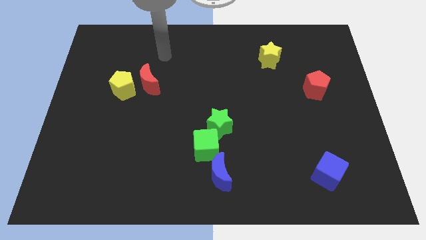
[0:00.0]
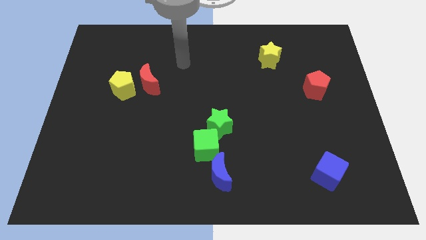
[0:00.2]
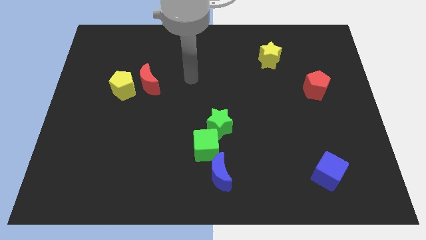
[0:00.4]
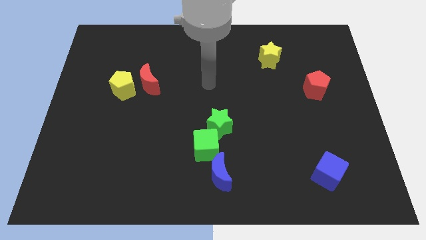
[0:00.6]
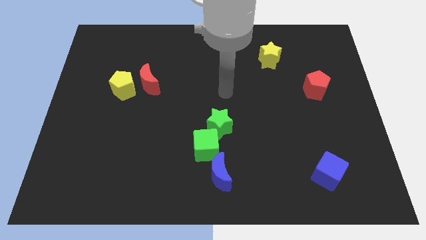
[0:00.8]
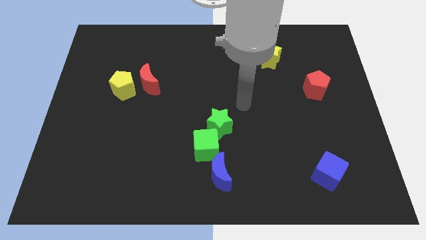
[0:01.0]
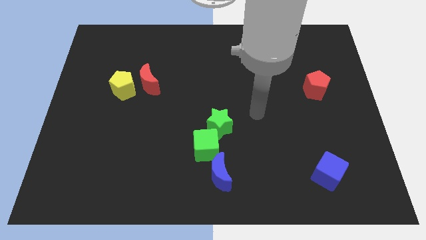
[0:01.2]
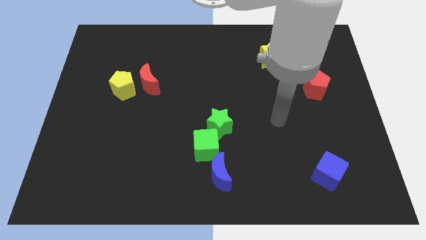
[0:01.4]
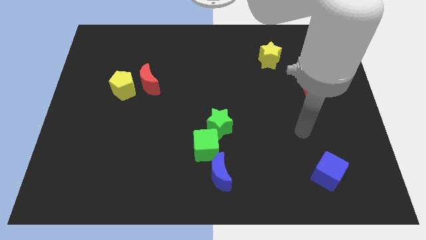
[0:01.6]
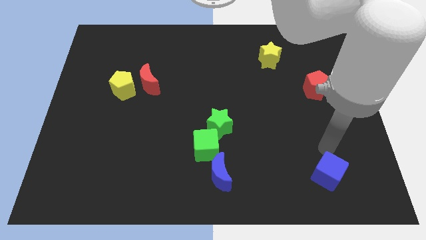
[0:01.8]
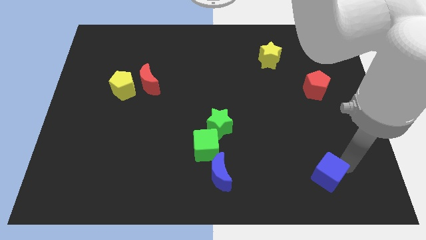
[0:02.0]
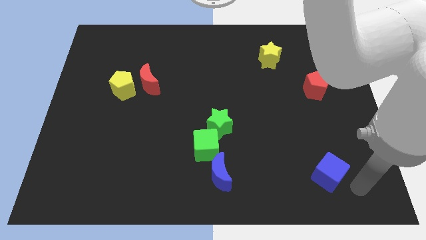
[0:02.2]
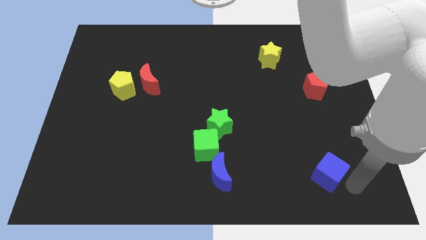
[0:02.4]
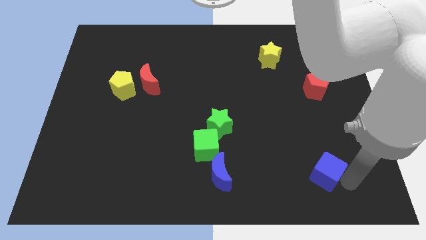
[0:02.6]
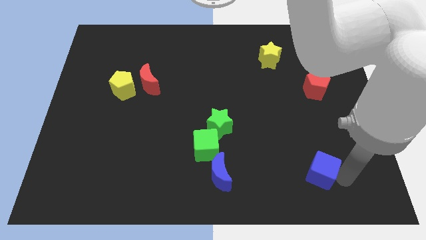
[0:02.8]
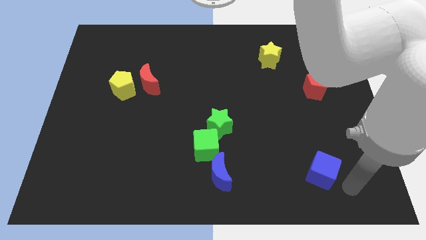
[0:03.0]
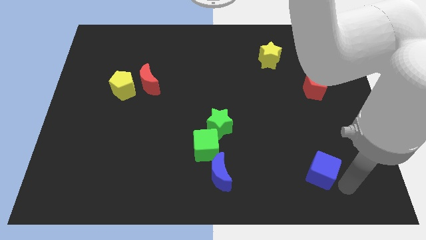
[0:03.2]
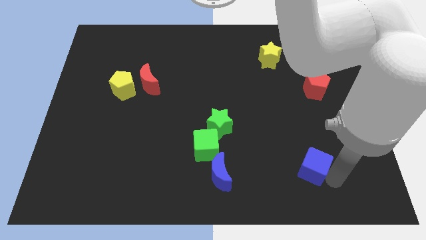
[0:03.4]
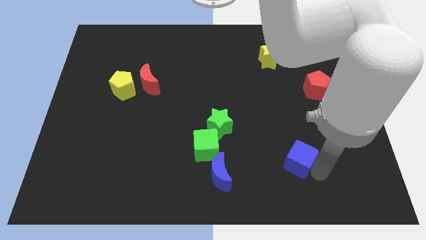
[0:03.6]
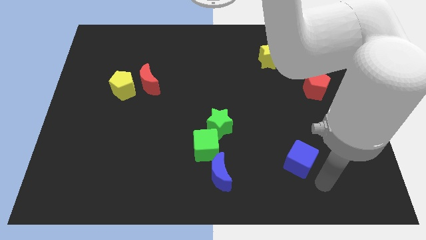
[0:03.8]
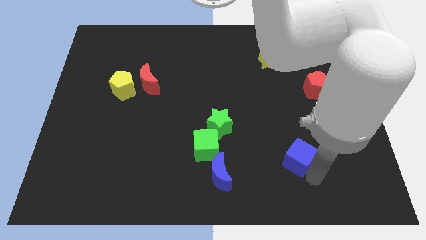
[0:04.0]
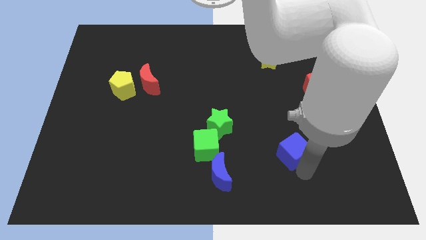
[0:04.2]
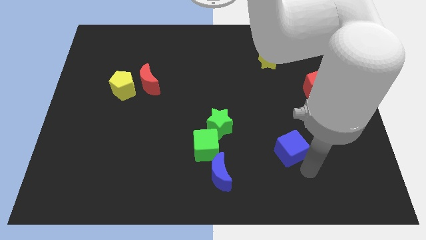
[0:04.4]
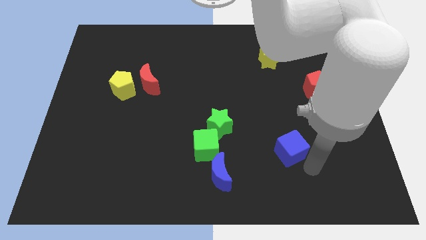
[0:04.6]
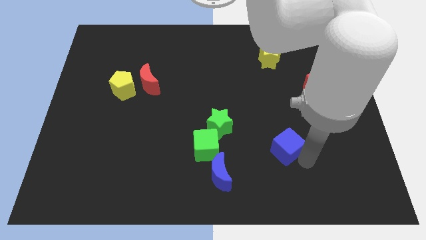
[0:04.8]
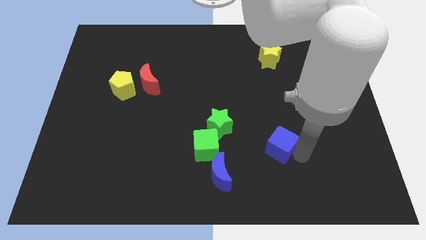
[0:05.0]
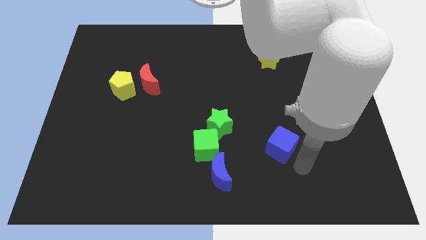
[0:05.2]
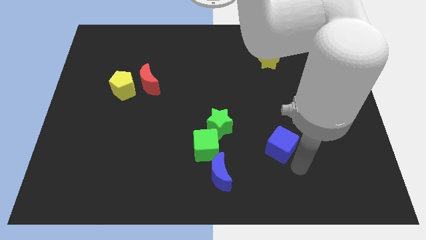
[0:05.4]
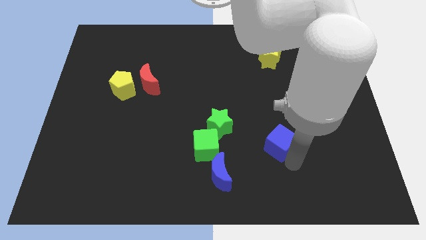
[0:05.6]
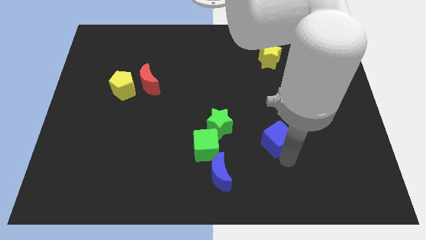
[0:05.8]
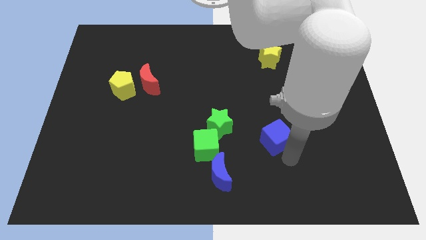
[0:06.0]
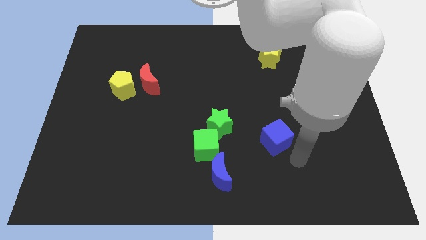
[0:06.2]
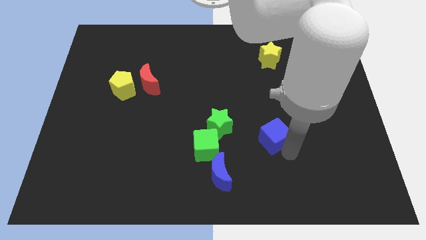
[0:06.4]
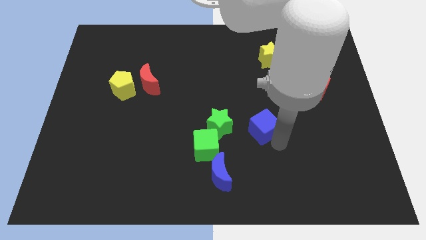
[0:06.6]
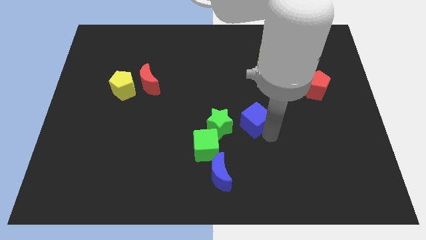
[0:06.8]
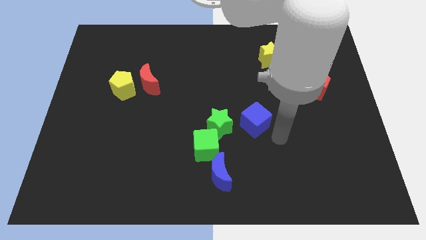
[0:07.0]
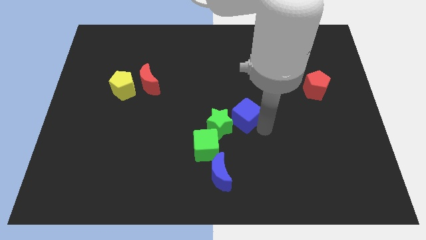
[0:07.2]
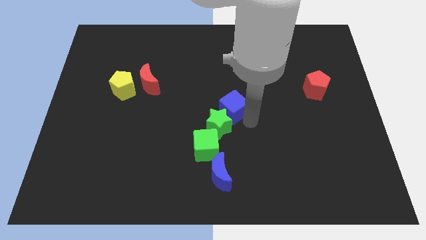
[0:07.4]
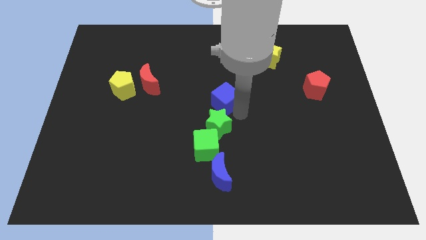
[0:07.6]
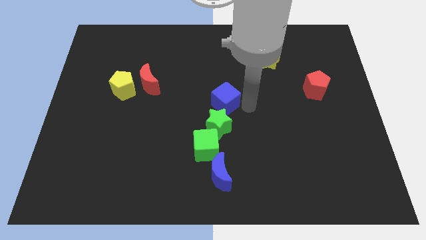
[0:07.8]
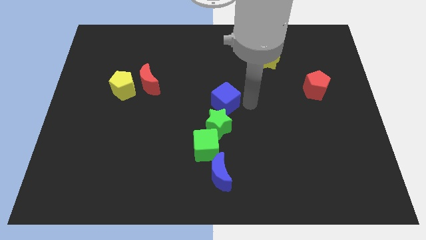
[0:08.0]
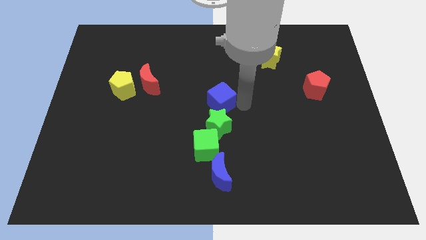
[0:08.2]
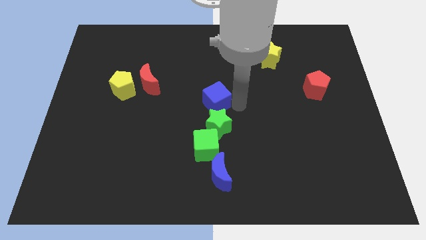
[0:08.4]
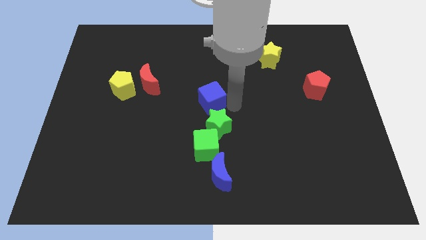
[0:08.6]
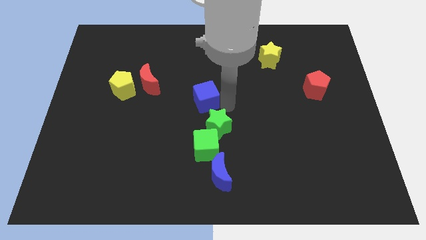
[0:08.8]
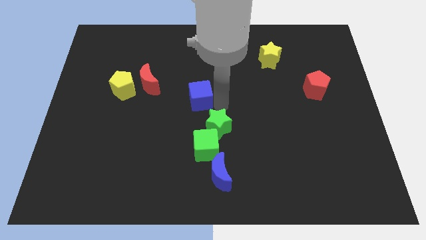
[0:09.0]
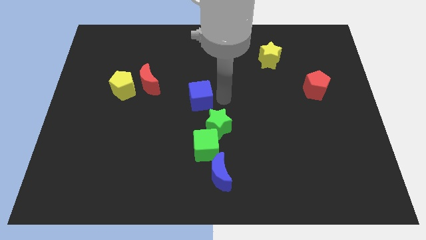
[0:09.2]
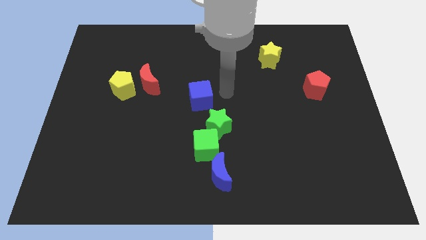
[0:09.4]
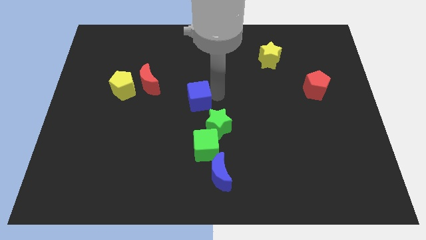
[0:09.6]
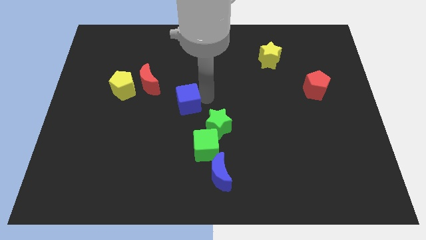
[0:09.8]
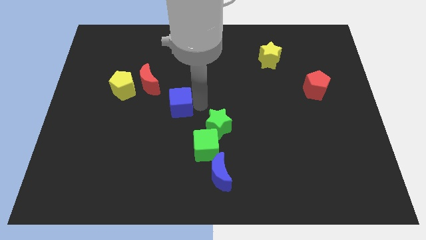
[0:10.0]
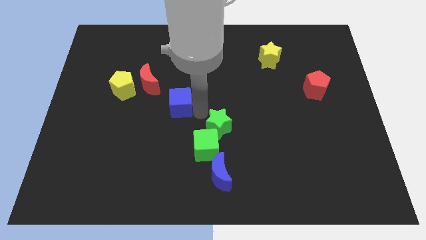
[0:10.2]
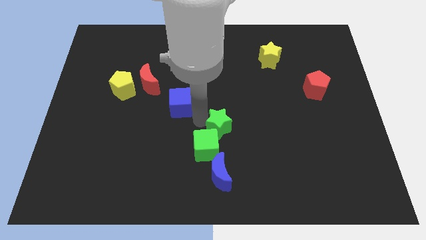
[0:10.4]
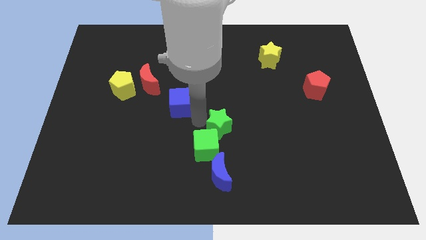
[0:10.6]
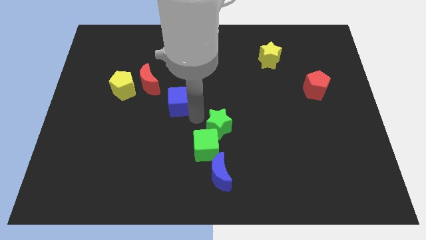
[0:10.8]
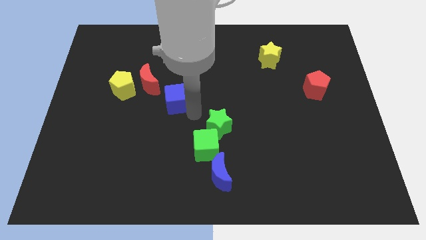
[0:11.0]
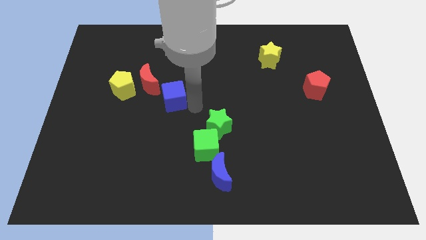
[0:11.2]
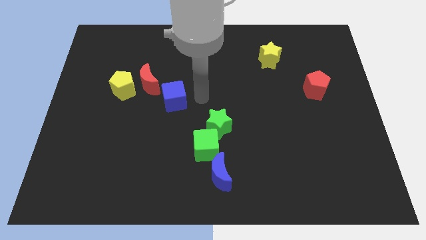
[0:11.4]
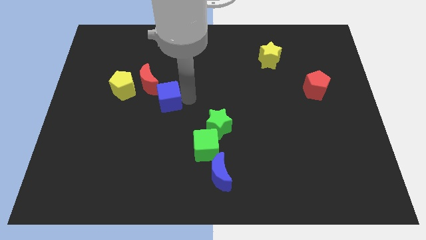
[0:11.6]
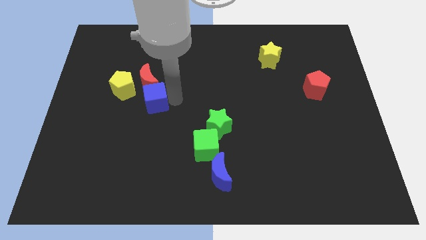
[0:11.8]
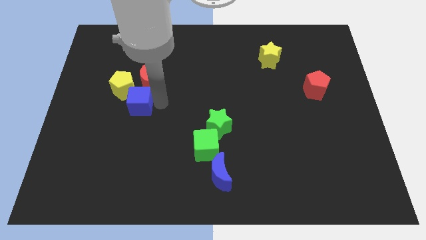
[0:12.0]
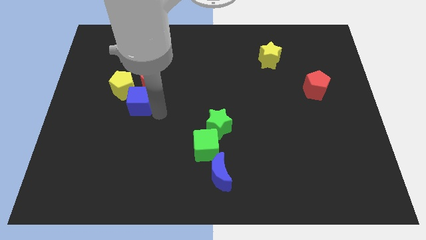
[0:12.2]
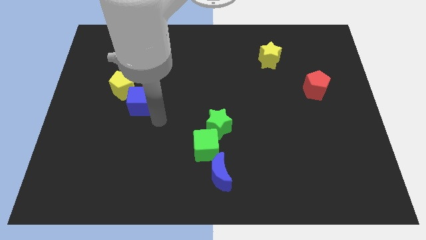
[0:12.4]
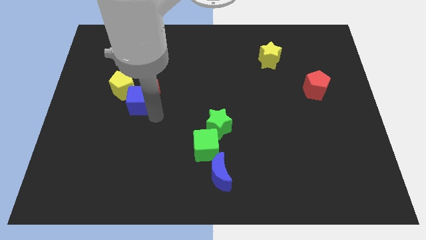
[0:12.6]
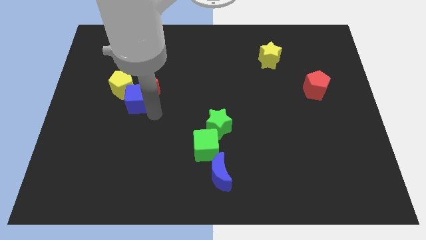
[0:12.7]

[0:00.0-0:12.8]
slide the blue cube close to the yellow pentagon

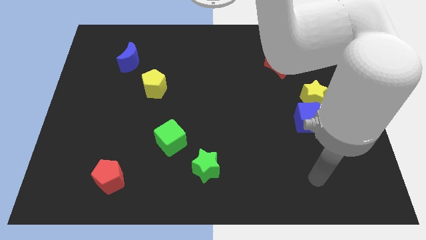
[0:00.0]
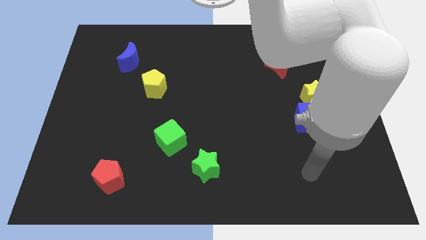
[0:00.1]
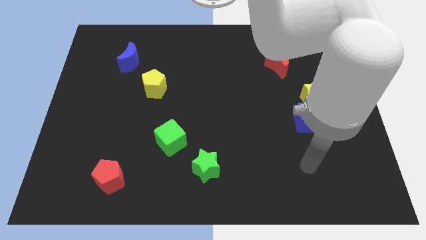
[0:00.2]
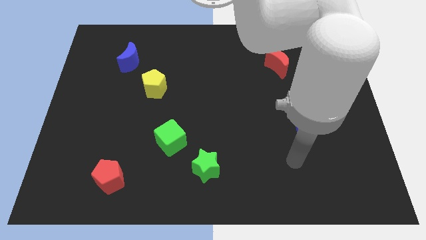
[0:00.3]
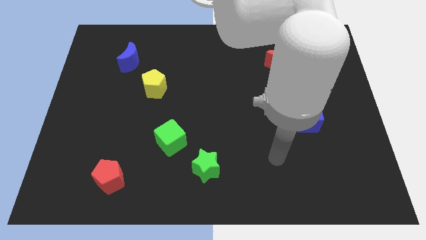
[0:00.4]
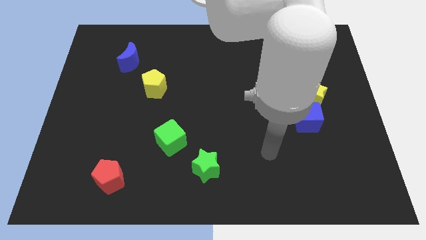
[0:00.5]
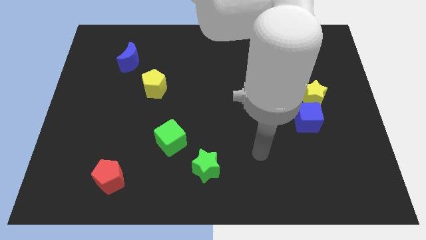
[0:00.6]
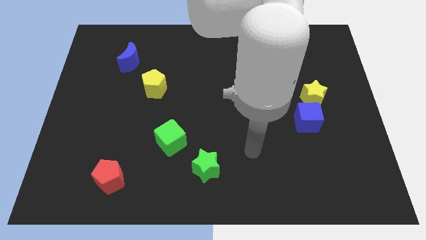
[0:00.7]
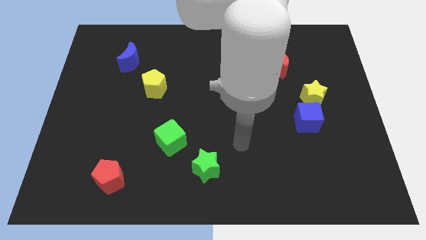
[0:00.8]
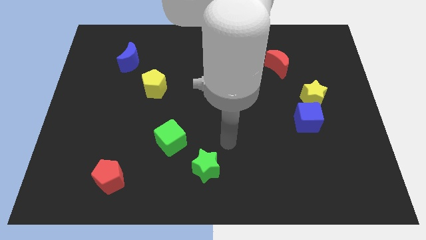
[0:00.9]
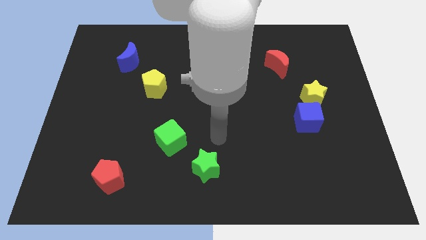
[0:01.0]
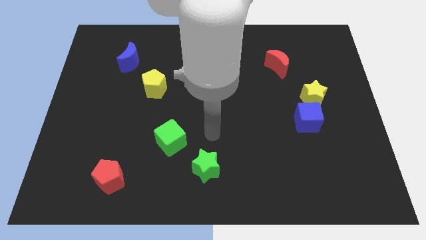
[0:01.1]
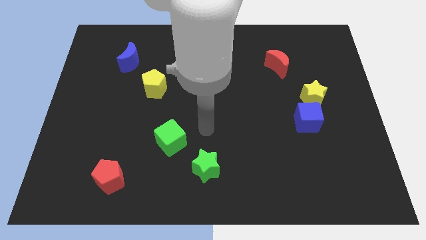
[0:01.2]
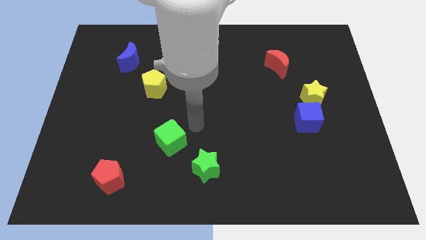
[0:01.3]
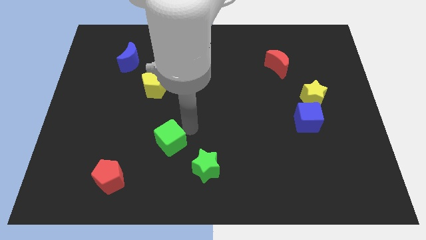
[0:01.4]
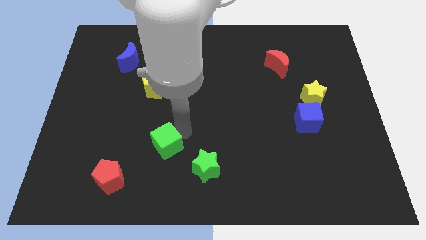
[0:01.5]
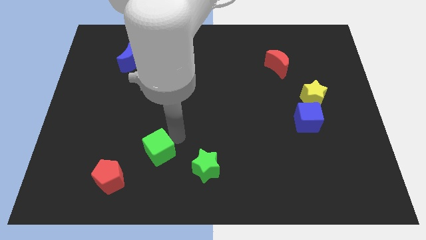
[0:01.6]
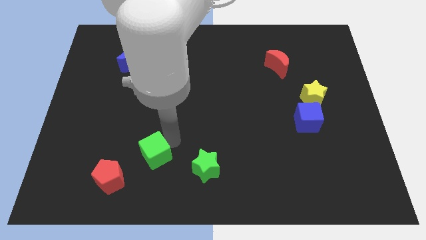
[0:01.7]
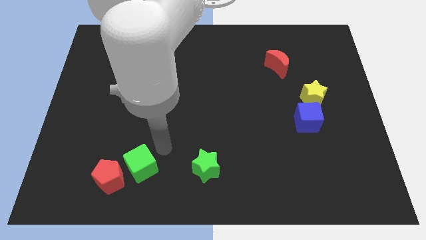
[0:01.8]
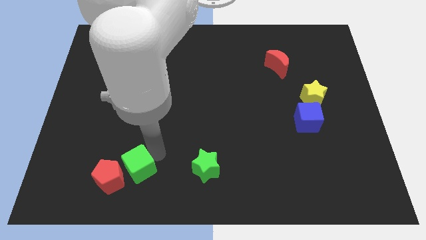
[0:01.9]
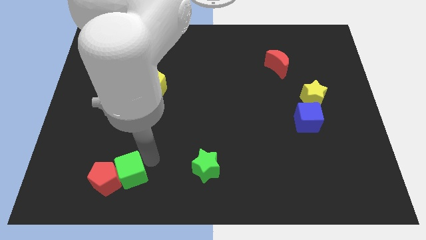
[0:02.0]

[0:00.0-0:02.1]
push the green cube close to the red pentagon
